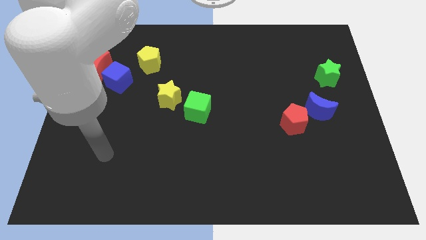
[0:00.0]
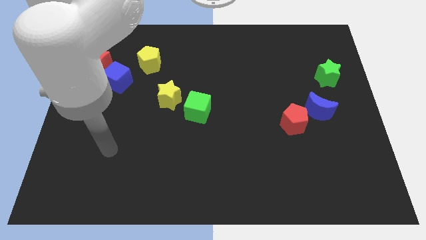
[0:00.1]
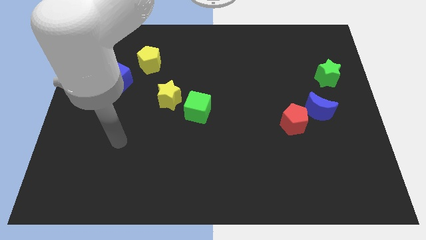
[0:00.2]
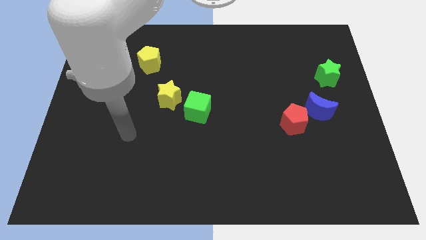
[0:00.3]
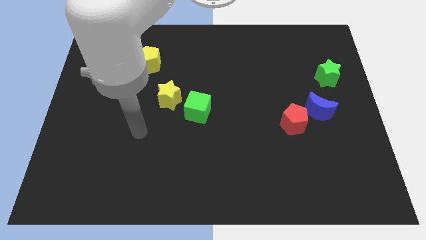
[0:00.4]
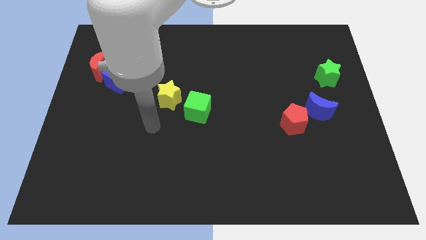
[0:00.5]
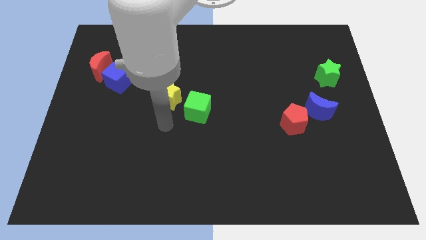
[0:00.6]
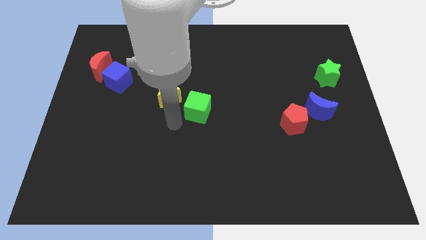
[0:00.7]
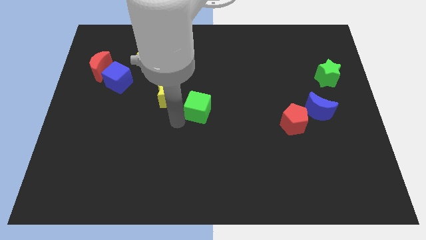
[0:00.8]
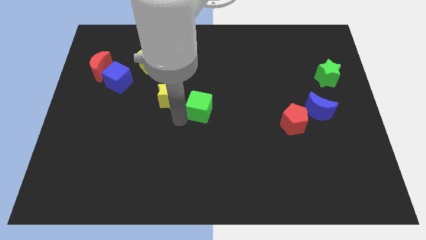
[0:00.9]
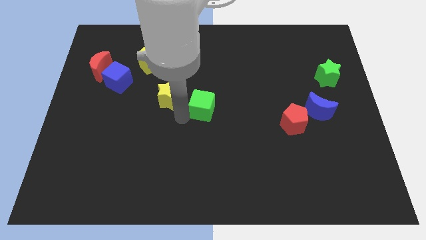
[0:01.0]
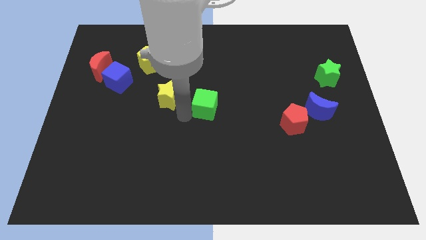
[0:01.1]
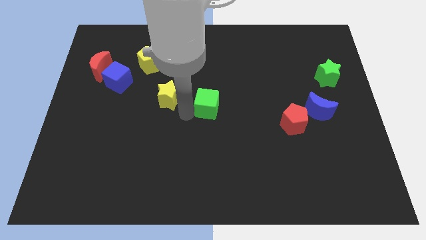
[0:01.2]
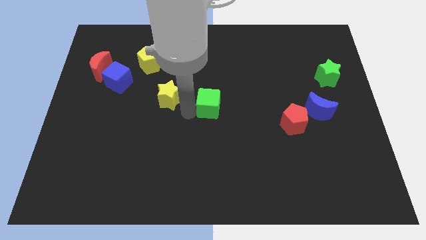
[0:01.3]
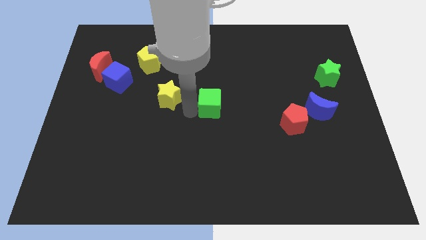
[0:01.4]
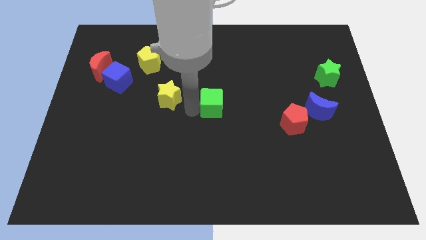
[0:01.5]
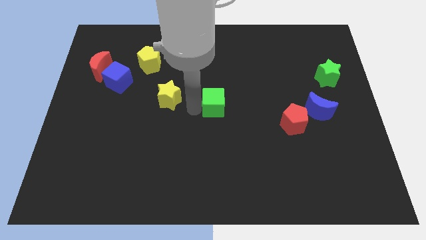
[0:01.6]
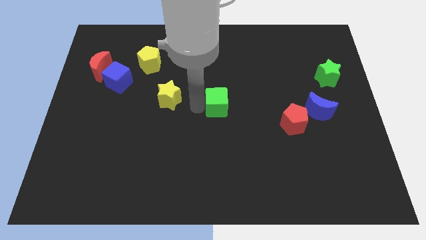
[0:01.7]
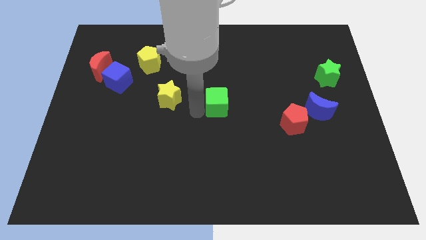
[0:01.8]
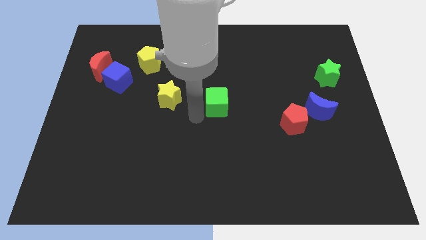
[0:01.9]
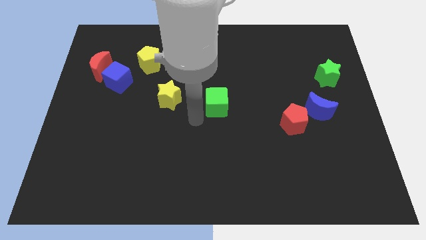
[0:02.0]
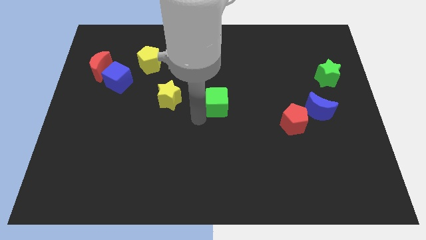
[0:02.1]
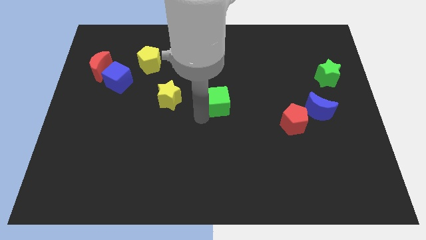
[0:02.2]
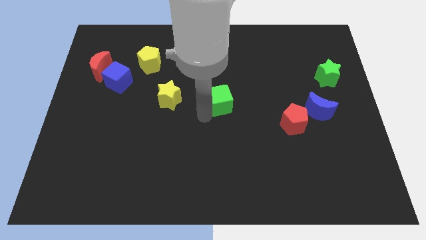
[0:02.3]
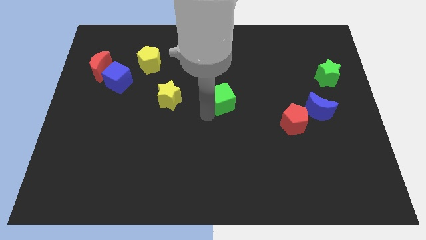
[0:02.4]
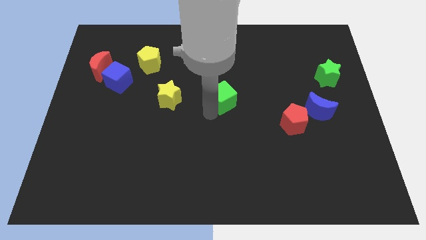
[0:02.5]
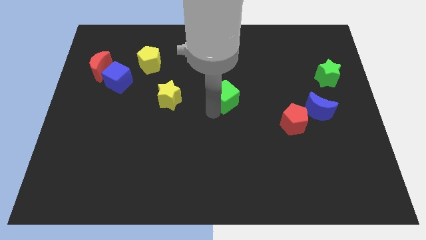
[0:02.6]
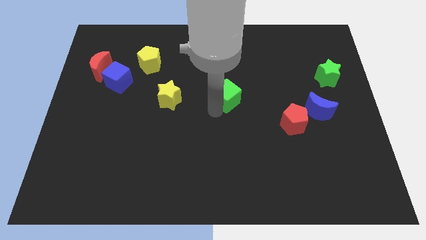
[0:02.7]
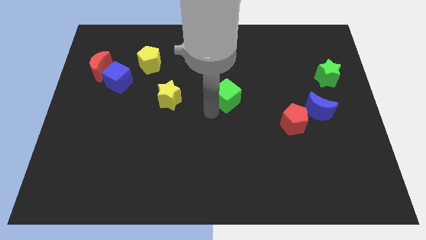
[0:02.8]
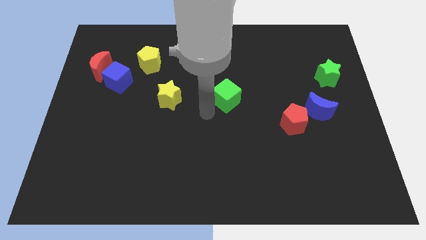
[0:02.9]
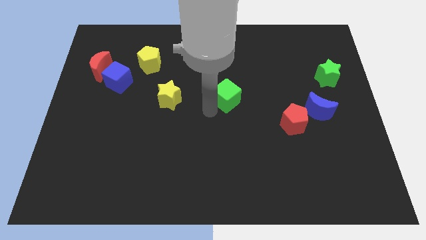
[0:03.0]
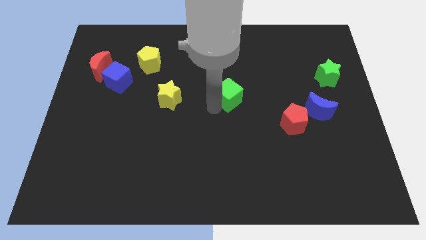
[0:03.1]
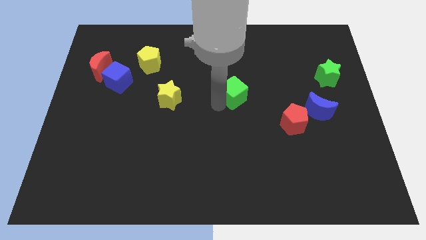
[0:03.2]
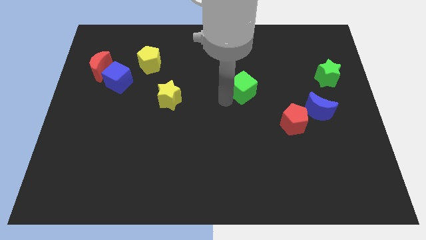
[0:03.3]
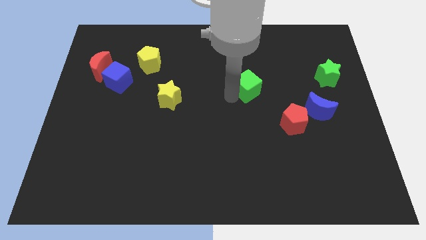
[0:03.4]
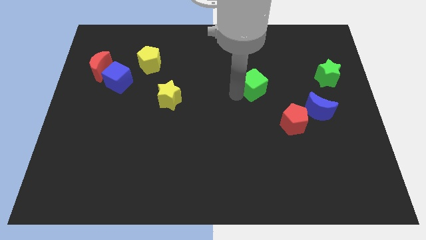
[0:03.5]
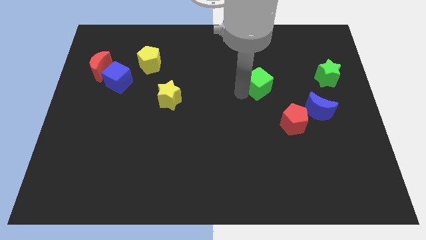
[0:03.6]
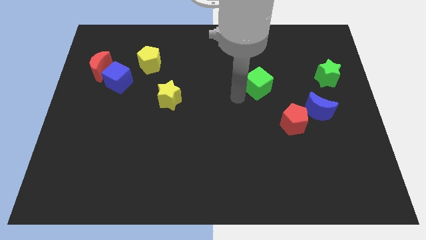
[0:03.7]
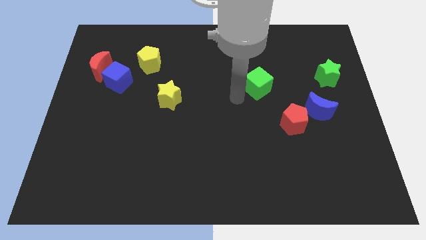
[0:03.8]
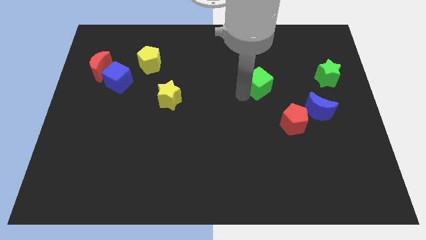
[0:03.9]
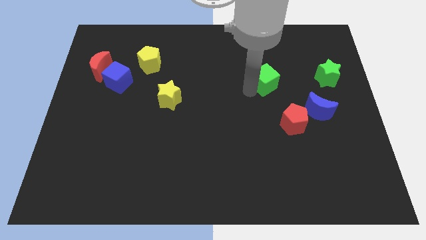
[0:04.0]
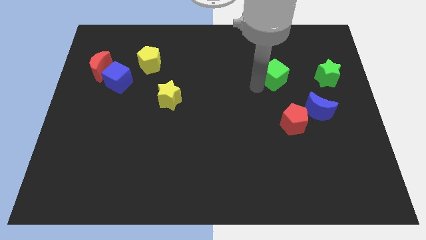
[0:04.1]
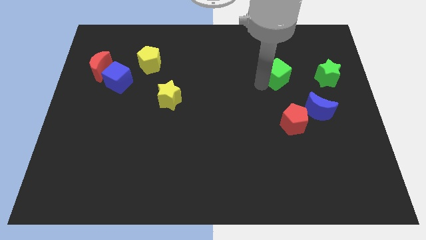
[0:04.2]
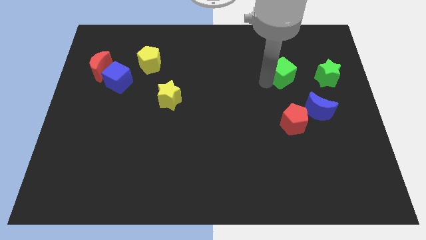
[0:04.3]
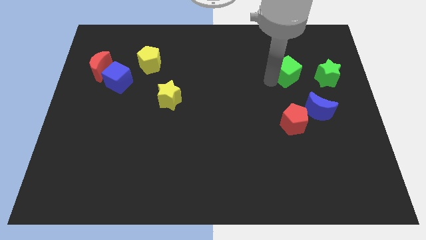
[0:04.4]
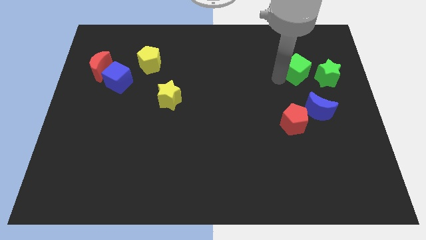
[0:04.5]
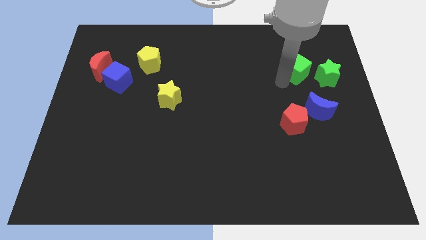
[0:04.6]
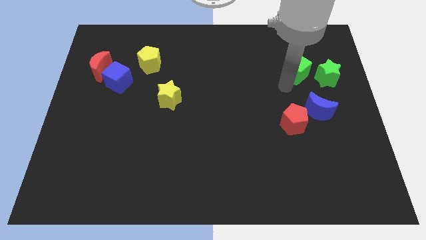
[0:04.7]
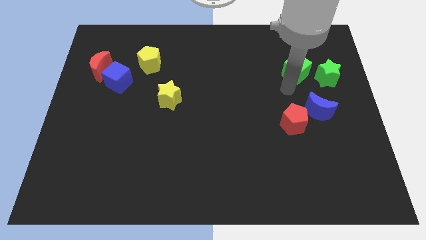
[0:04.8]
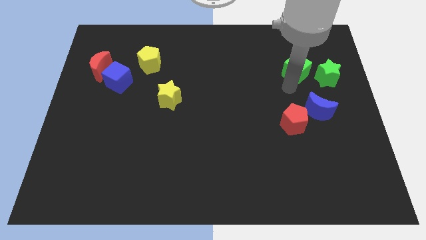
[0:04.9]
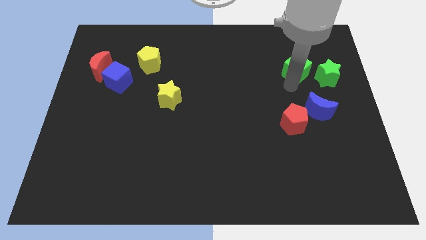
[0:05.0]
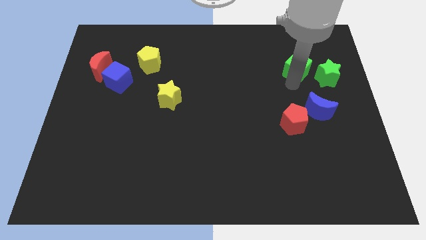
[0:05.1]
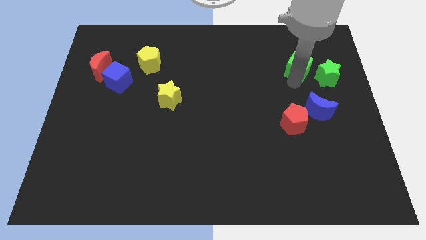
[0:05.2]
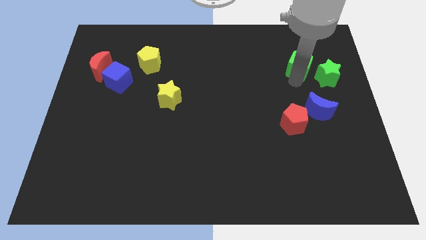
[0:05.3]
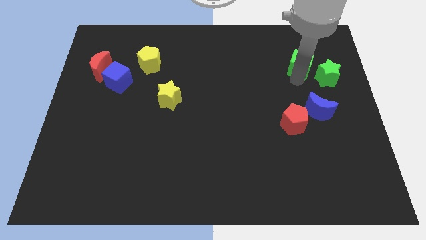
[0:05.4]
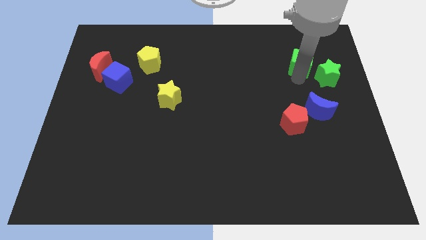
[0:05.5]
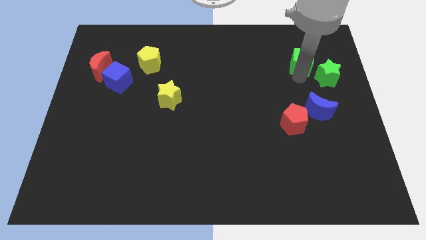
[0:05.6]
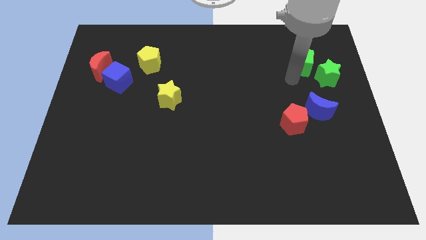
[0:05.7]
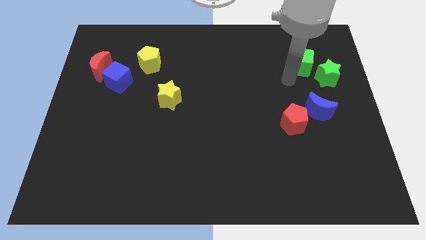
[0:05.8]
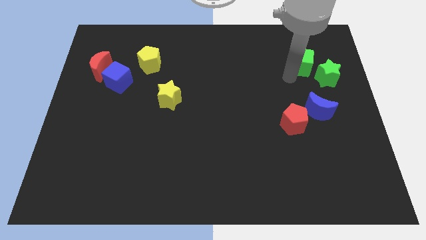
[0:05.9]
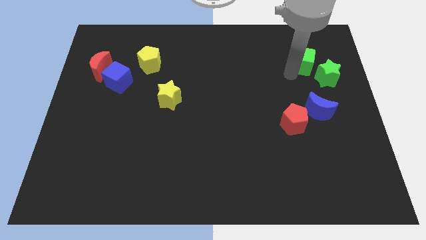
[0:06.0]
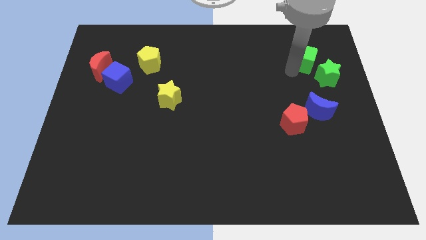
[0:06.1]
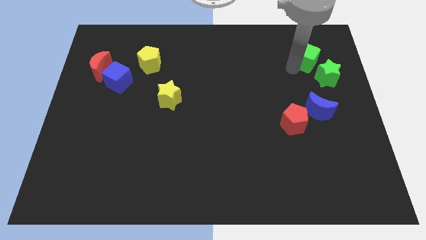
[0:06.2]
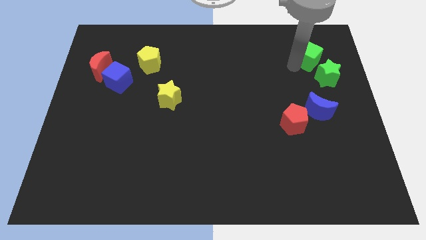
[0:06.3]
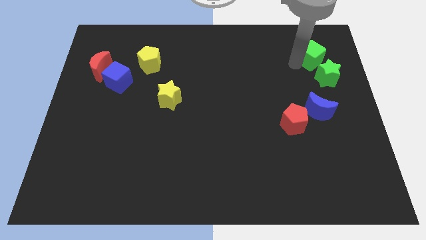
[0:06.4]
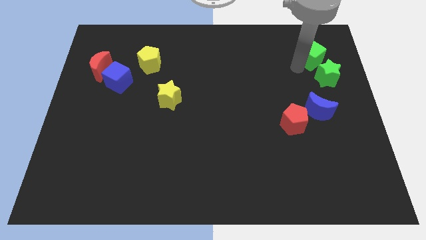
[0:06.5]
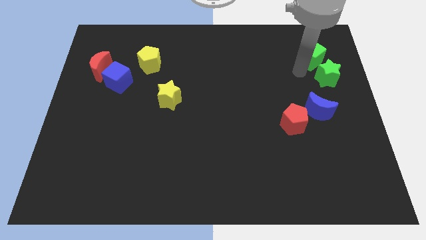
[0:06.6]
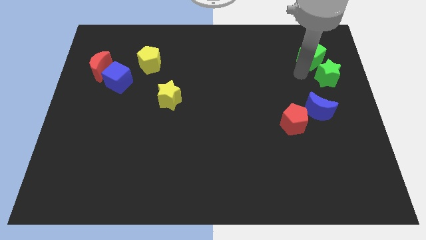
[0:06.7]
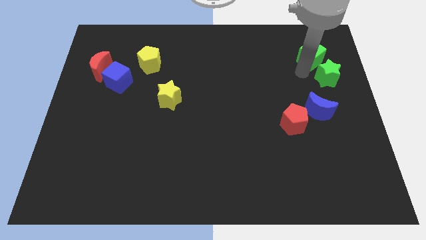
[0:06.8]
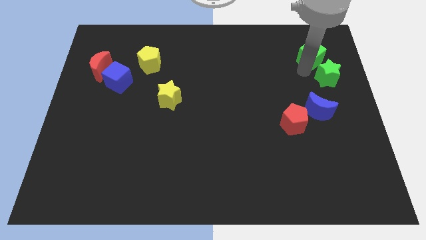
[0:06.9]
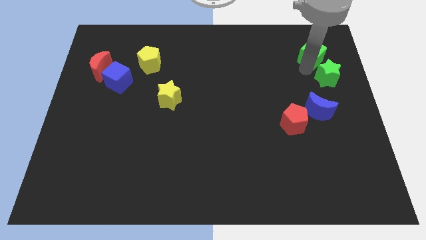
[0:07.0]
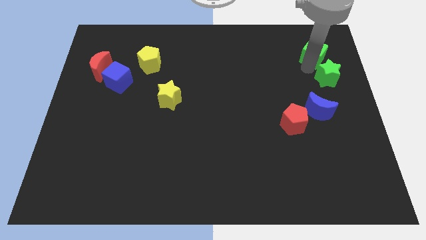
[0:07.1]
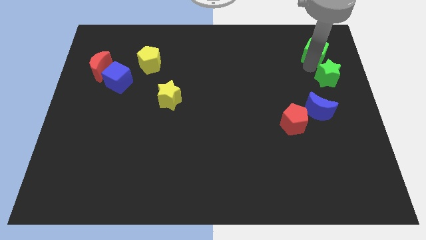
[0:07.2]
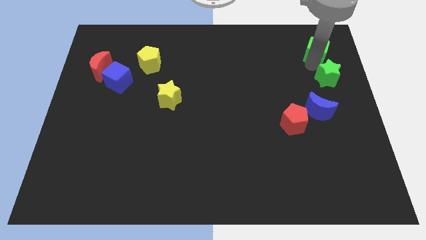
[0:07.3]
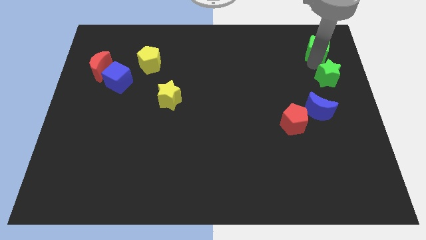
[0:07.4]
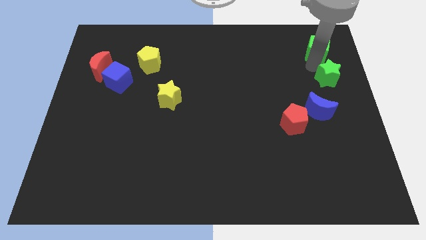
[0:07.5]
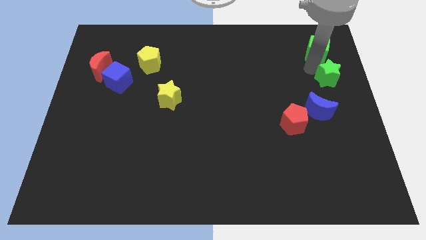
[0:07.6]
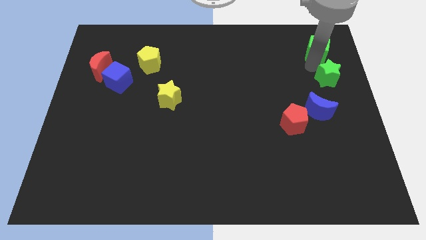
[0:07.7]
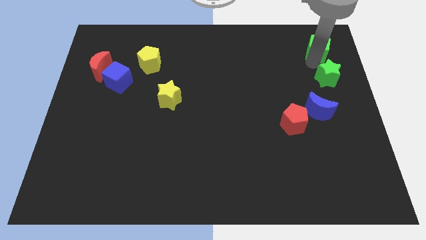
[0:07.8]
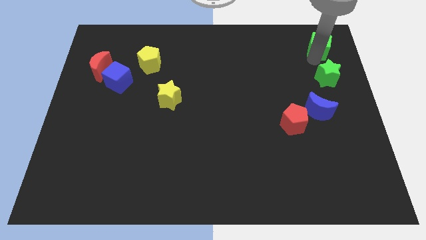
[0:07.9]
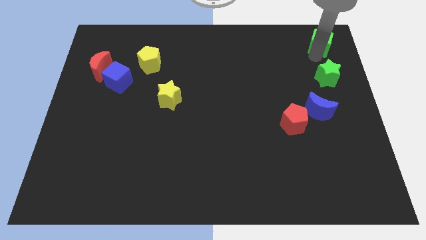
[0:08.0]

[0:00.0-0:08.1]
push the green cube to the upper right corner
